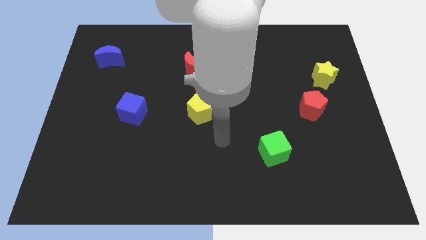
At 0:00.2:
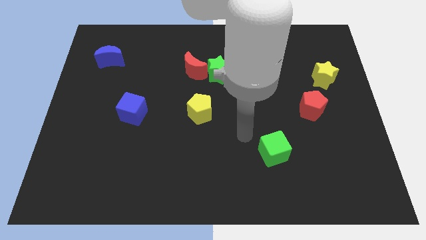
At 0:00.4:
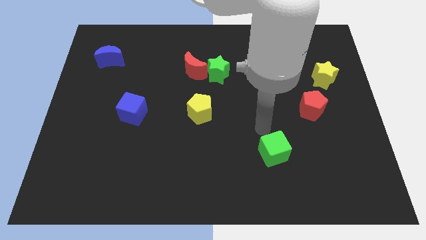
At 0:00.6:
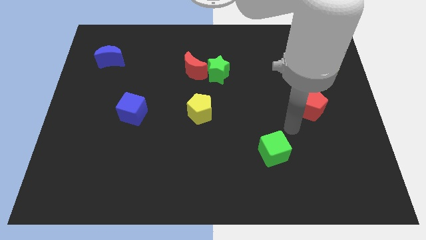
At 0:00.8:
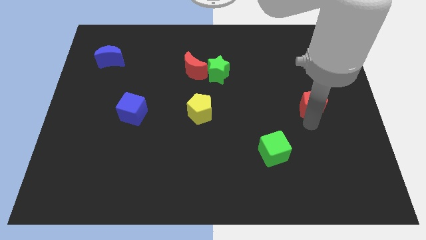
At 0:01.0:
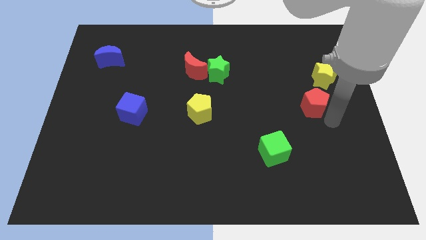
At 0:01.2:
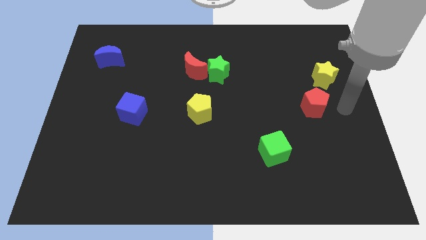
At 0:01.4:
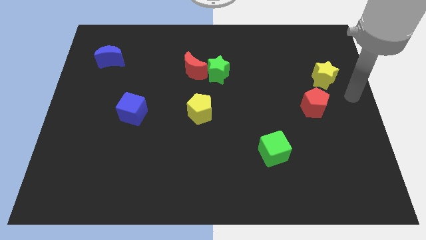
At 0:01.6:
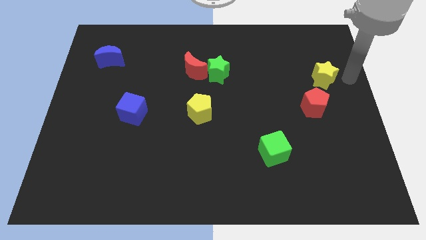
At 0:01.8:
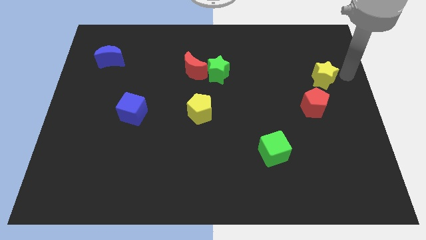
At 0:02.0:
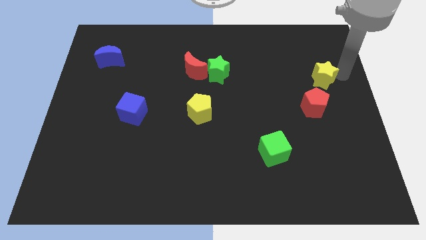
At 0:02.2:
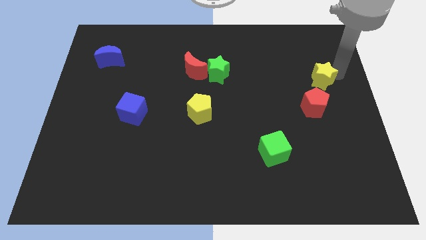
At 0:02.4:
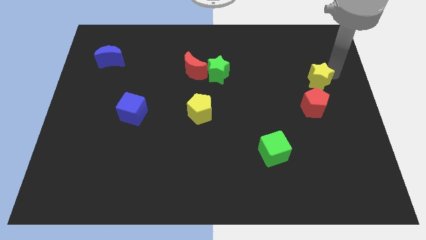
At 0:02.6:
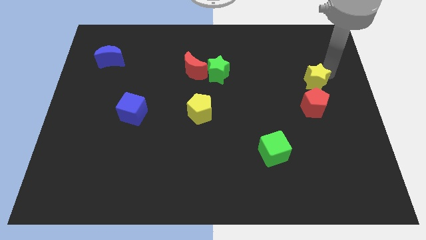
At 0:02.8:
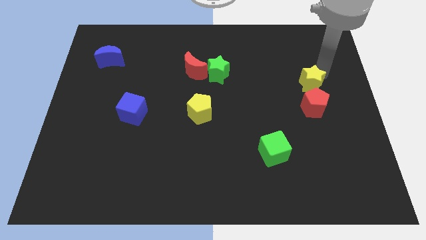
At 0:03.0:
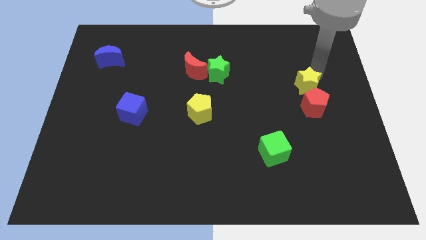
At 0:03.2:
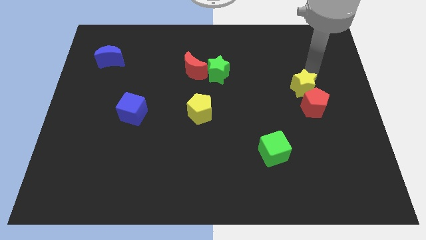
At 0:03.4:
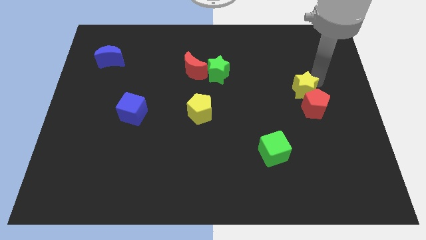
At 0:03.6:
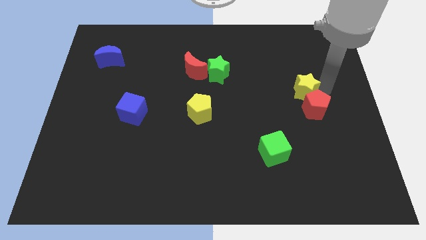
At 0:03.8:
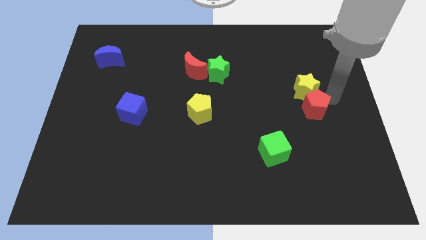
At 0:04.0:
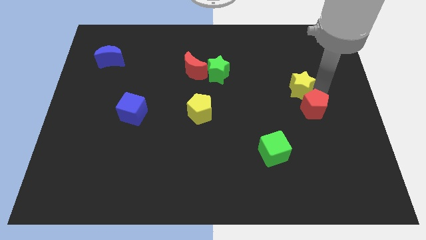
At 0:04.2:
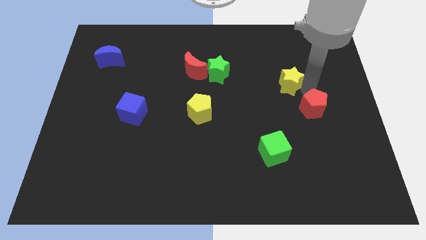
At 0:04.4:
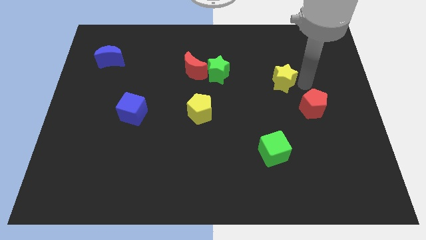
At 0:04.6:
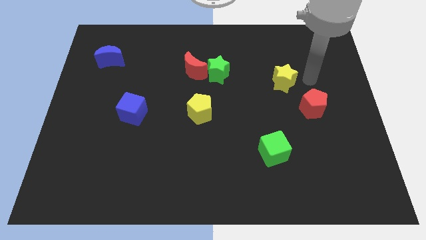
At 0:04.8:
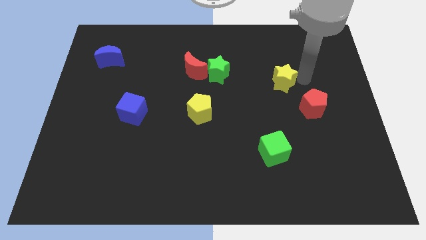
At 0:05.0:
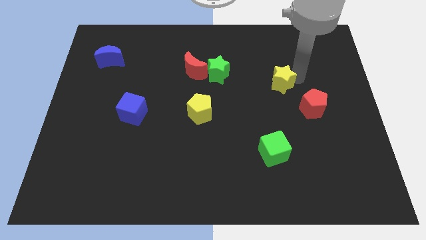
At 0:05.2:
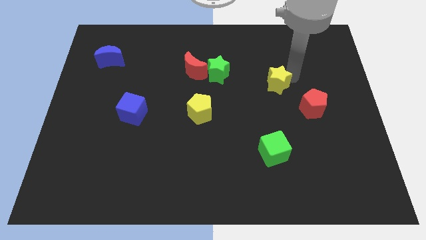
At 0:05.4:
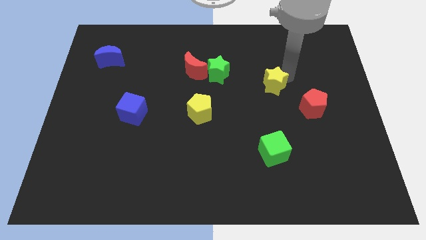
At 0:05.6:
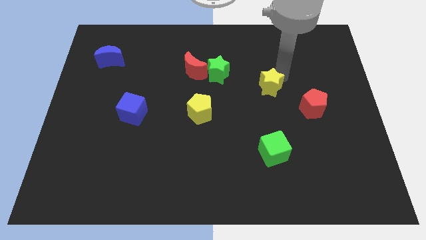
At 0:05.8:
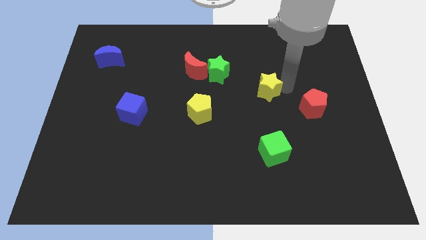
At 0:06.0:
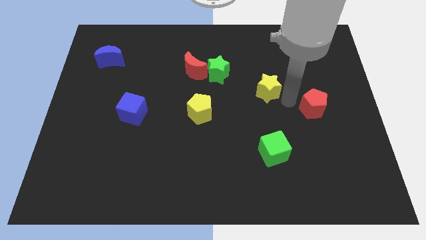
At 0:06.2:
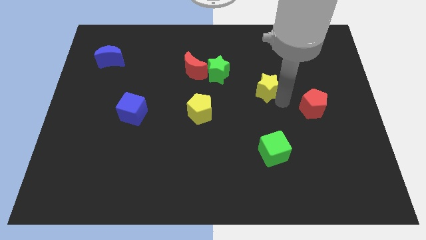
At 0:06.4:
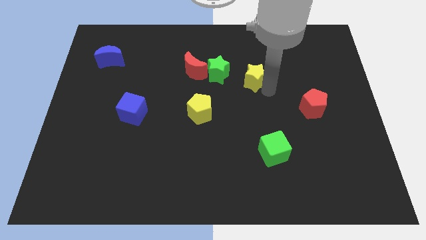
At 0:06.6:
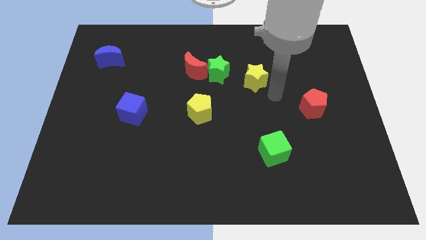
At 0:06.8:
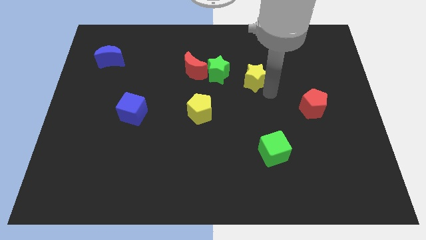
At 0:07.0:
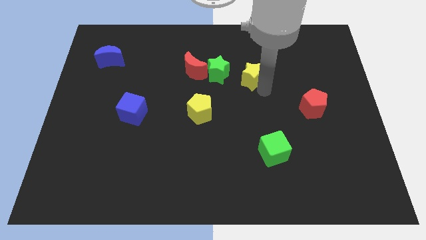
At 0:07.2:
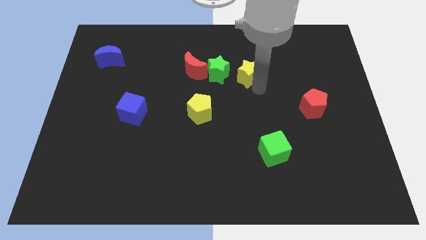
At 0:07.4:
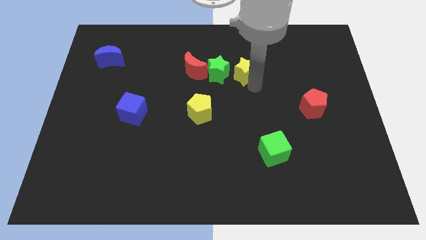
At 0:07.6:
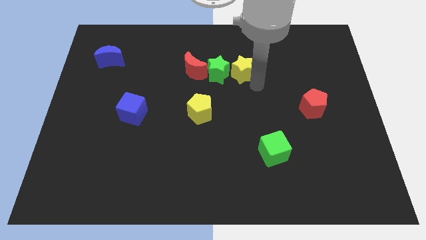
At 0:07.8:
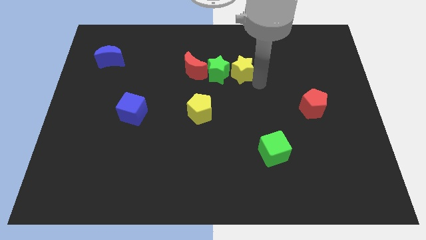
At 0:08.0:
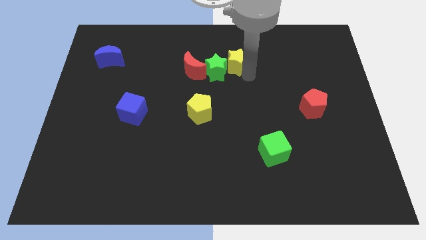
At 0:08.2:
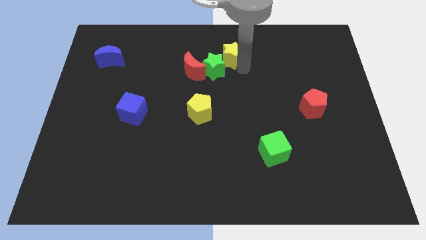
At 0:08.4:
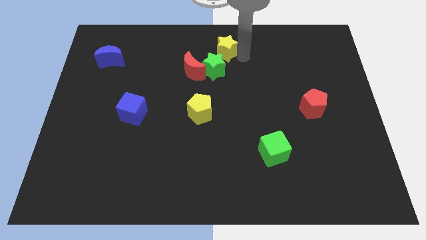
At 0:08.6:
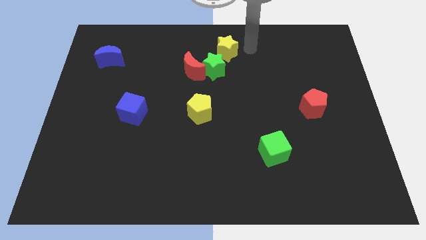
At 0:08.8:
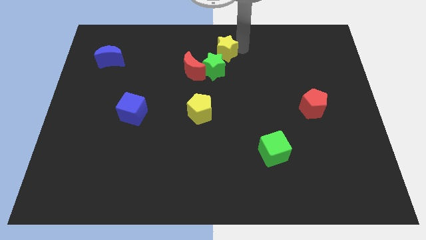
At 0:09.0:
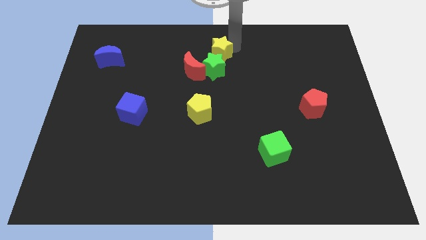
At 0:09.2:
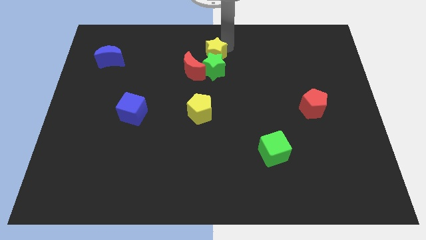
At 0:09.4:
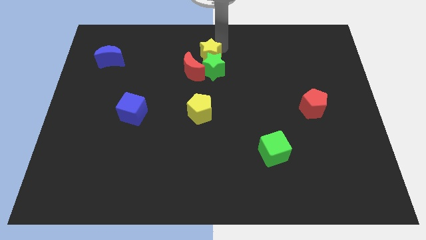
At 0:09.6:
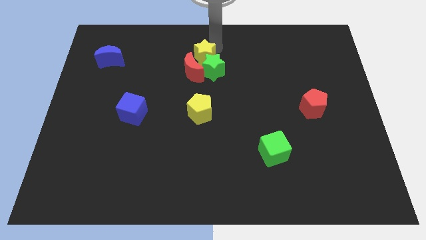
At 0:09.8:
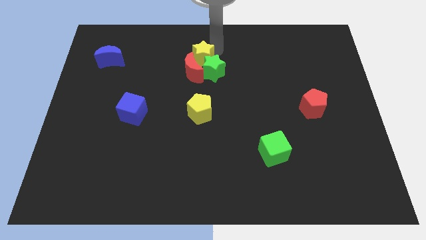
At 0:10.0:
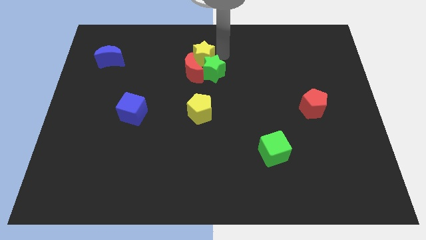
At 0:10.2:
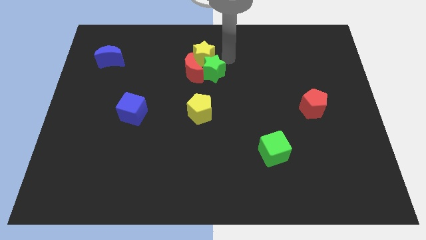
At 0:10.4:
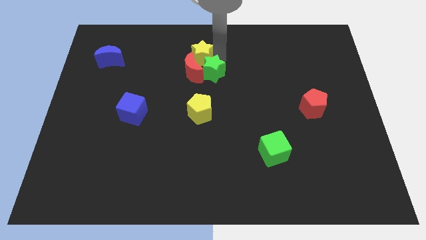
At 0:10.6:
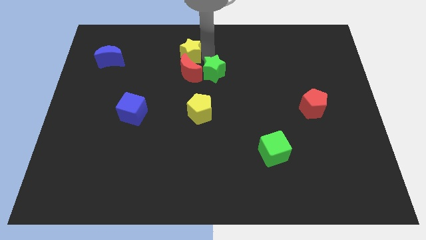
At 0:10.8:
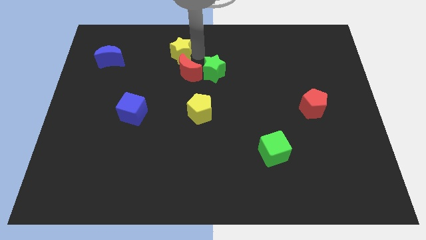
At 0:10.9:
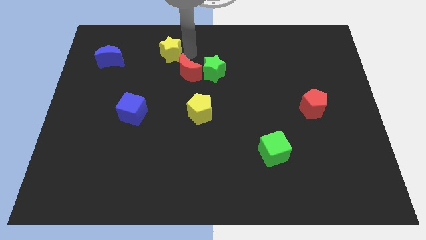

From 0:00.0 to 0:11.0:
move the yellow star to the right of the blue moon

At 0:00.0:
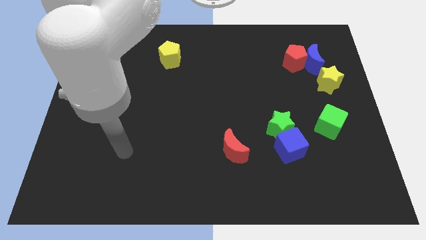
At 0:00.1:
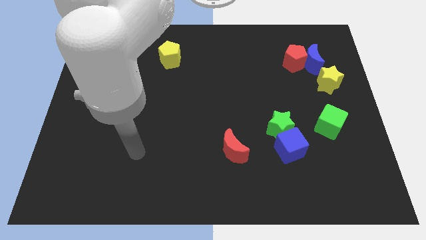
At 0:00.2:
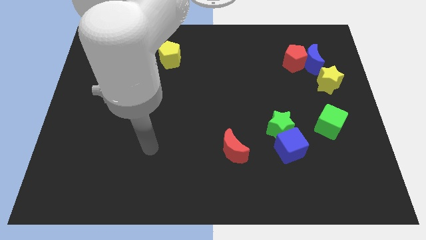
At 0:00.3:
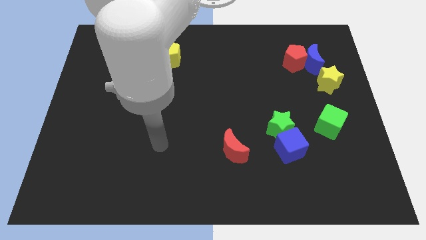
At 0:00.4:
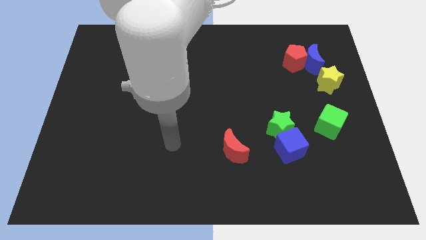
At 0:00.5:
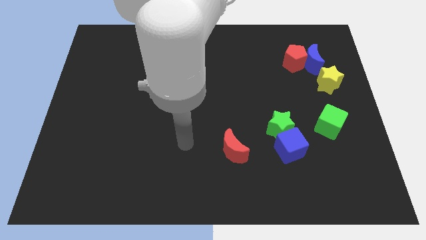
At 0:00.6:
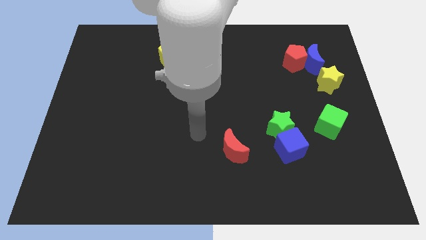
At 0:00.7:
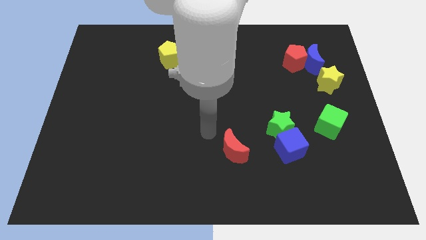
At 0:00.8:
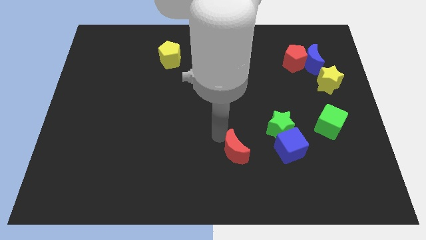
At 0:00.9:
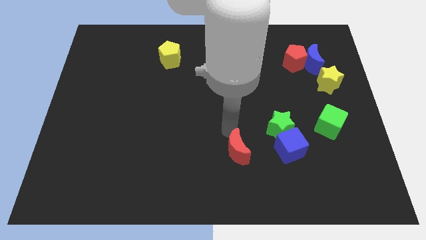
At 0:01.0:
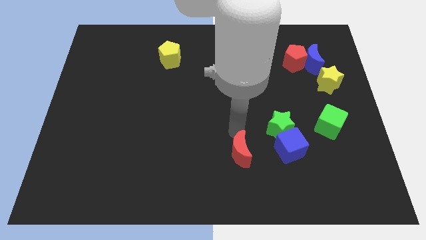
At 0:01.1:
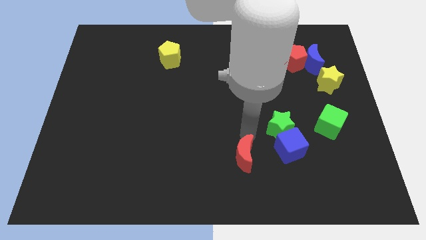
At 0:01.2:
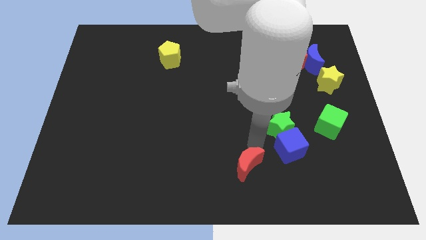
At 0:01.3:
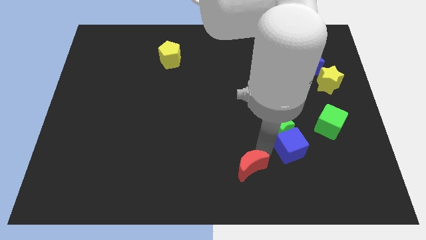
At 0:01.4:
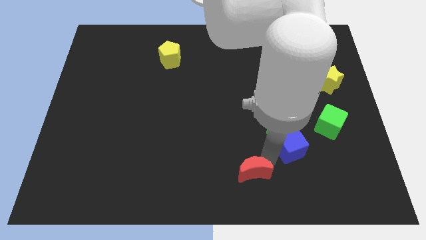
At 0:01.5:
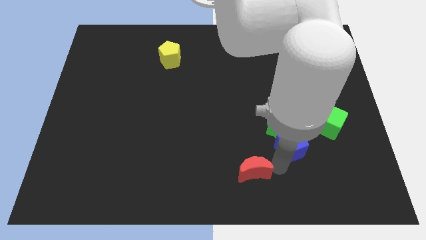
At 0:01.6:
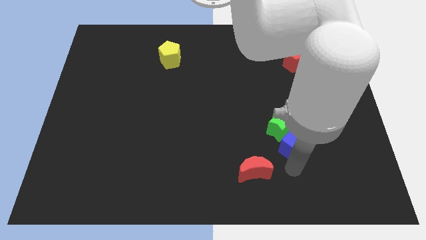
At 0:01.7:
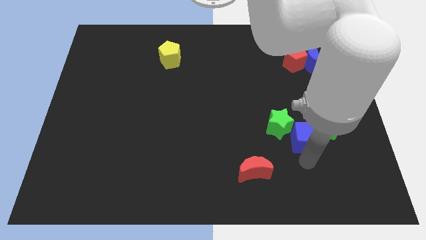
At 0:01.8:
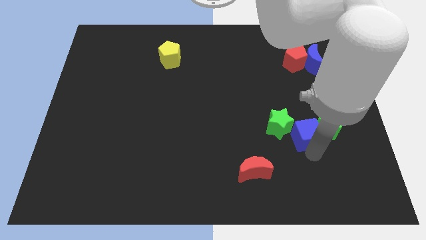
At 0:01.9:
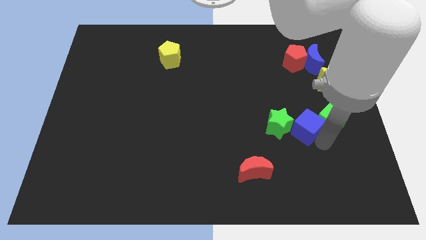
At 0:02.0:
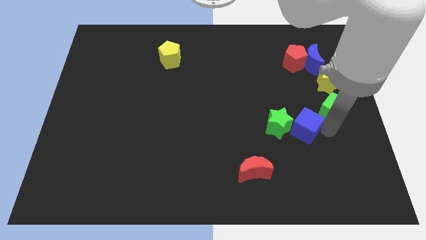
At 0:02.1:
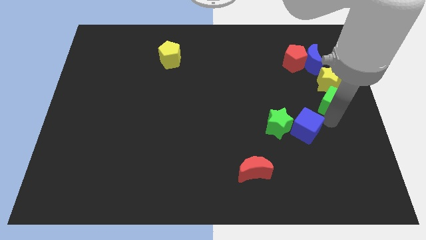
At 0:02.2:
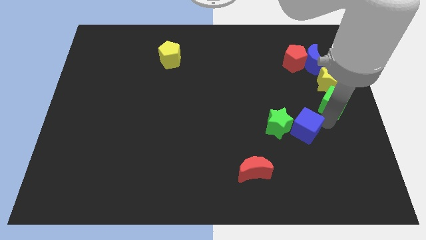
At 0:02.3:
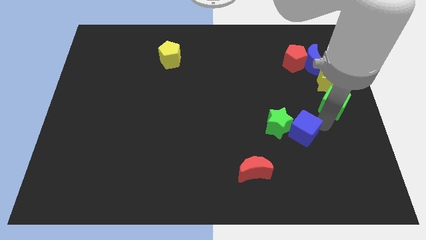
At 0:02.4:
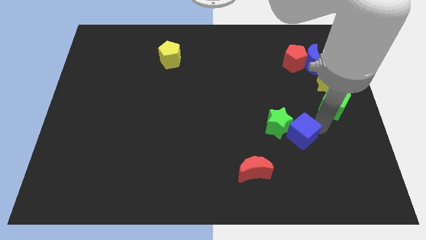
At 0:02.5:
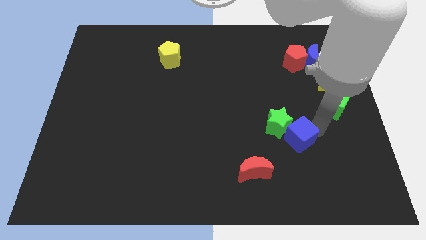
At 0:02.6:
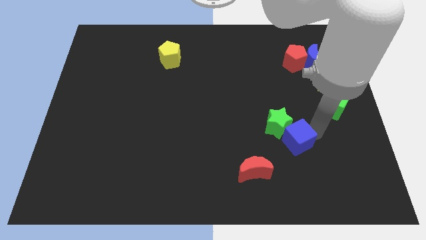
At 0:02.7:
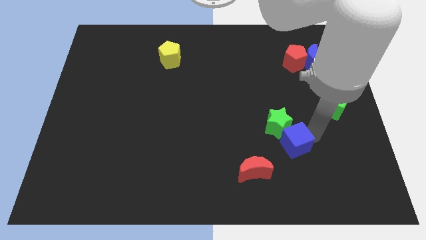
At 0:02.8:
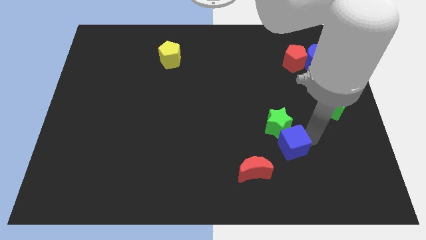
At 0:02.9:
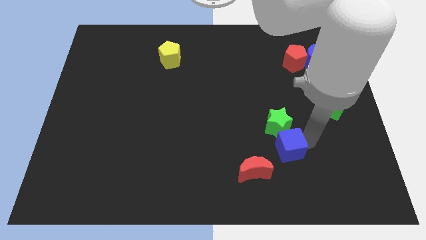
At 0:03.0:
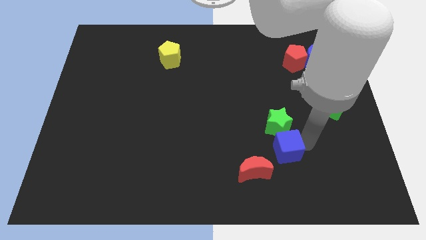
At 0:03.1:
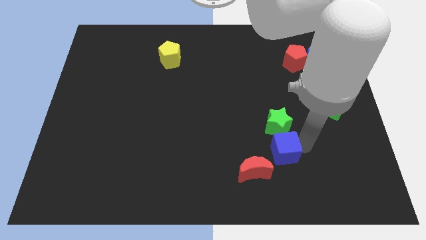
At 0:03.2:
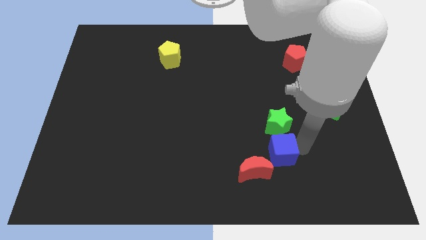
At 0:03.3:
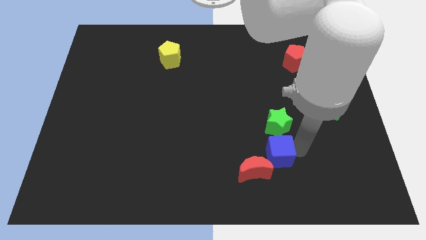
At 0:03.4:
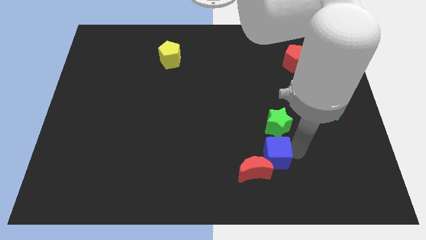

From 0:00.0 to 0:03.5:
push the blue cube to the bottom left of the green star
